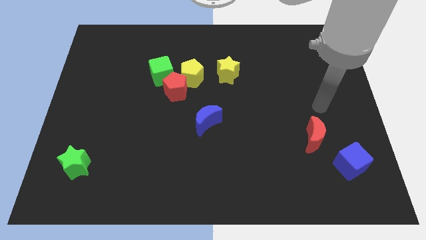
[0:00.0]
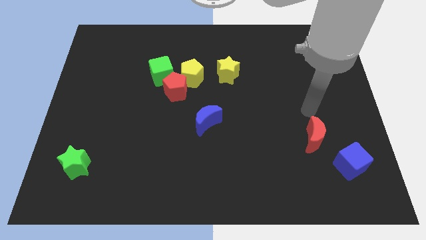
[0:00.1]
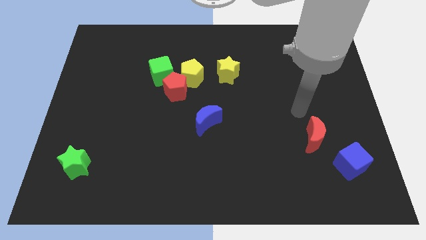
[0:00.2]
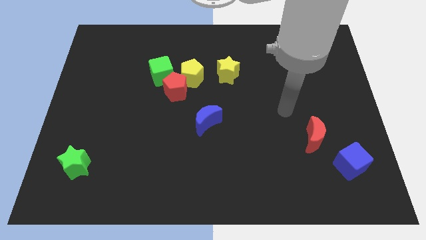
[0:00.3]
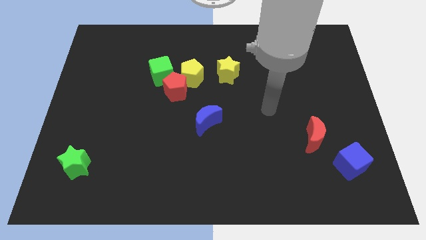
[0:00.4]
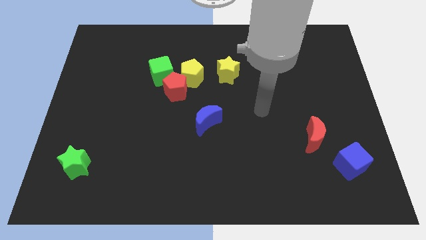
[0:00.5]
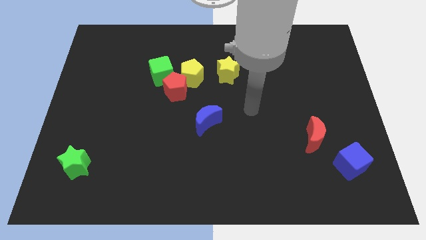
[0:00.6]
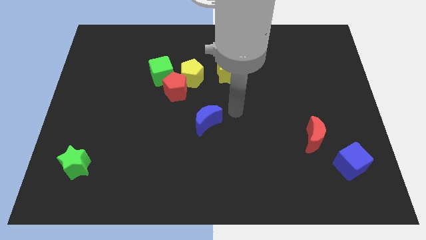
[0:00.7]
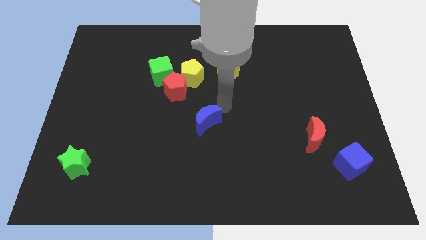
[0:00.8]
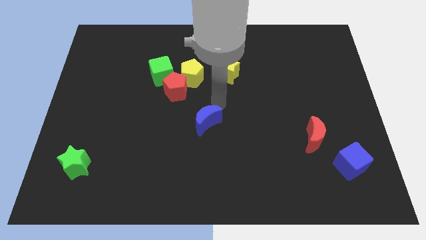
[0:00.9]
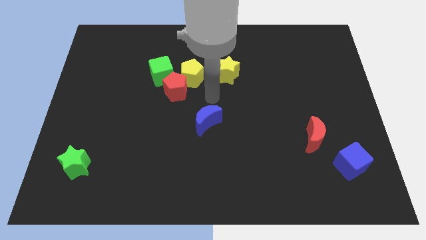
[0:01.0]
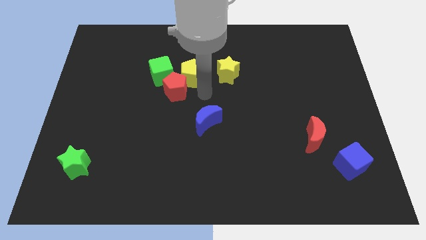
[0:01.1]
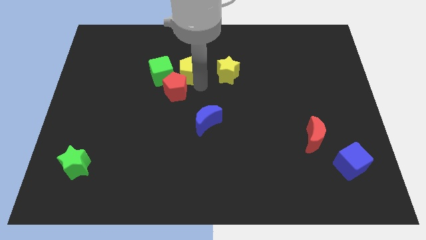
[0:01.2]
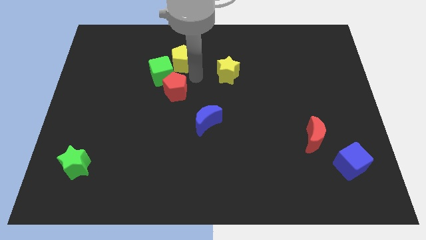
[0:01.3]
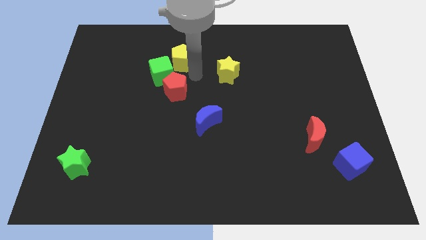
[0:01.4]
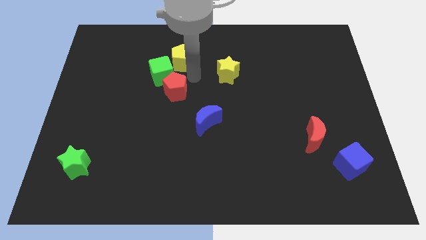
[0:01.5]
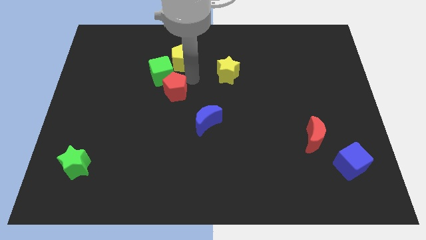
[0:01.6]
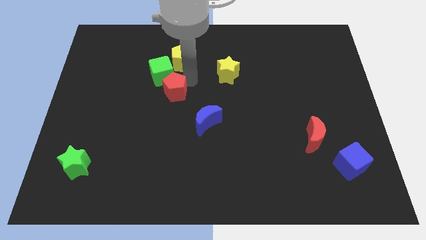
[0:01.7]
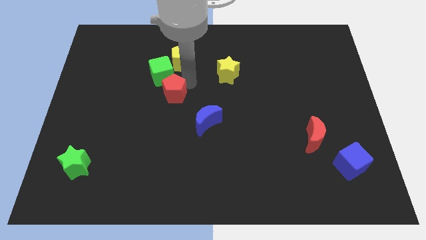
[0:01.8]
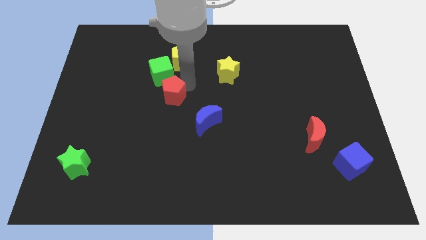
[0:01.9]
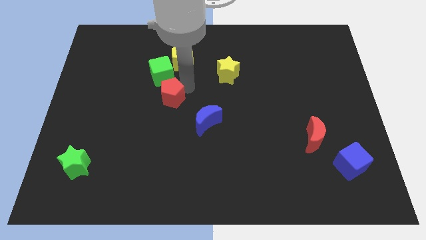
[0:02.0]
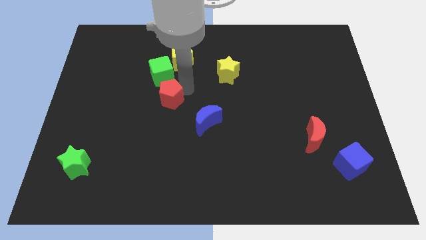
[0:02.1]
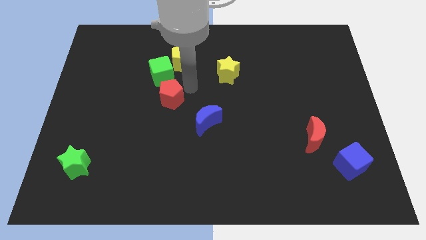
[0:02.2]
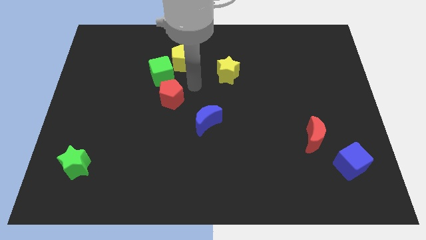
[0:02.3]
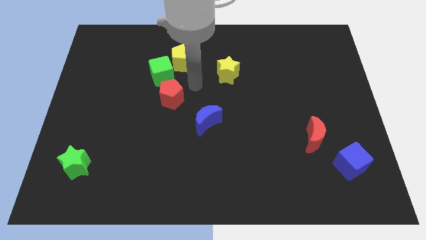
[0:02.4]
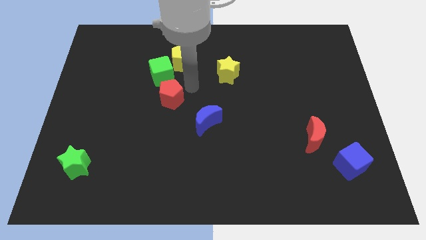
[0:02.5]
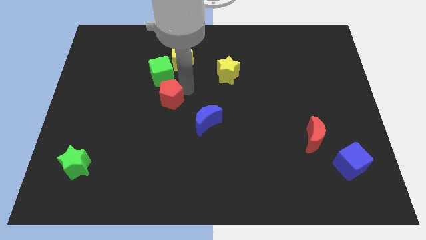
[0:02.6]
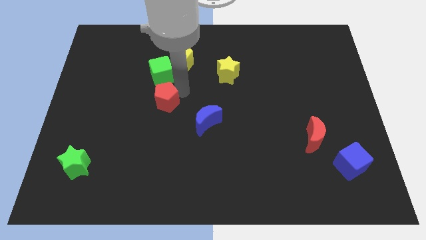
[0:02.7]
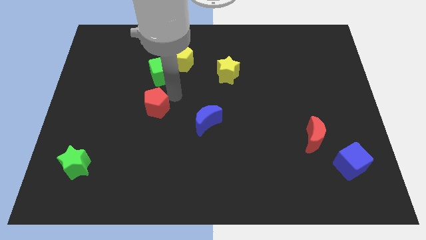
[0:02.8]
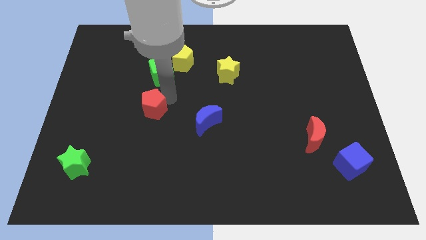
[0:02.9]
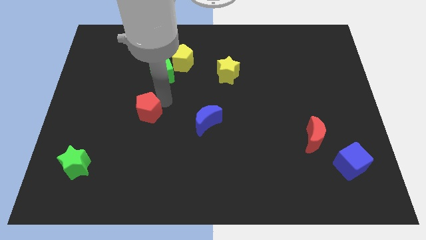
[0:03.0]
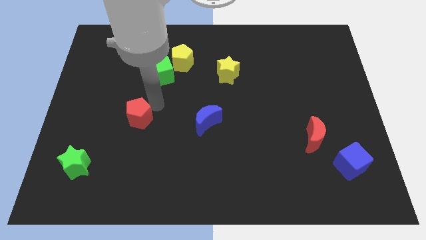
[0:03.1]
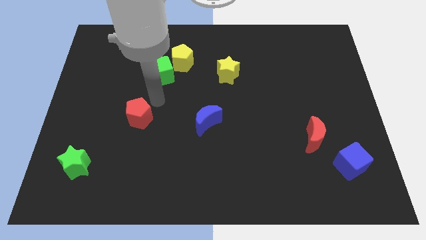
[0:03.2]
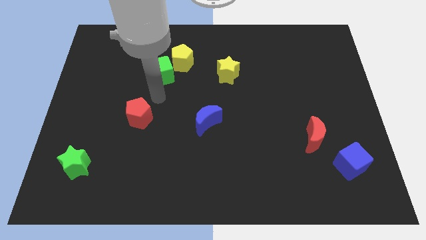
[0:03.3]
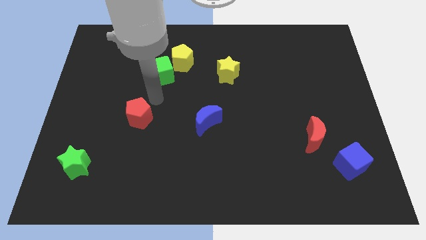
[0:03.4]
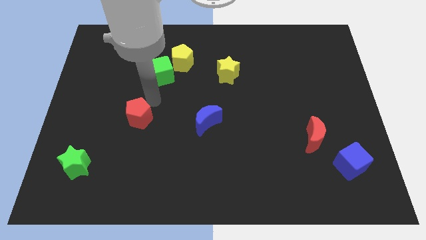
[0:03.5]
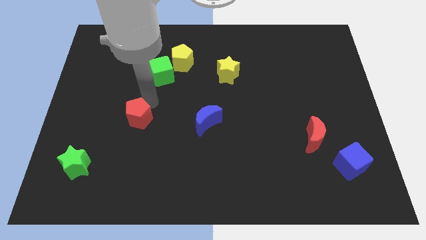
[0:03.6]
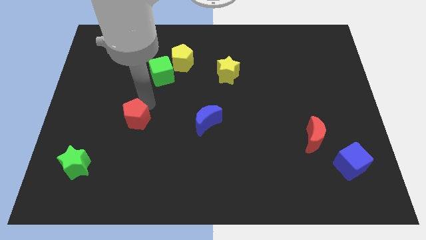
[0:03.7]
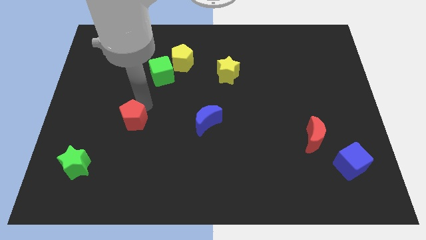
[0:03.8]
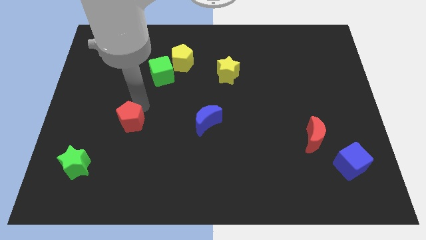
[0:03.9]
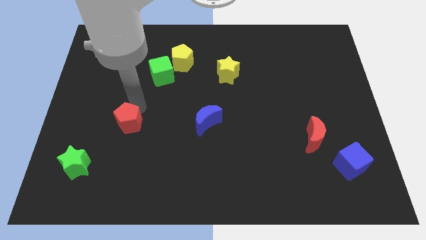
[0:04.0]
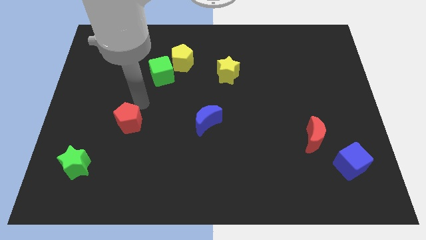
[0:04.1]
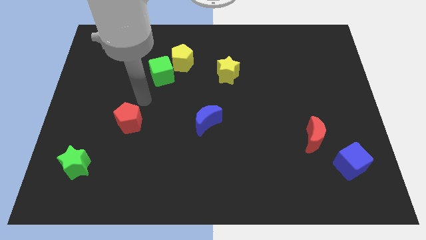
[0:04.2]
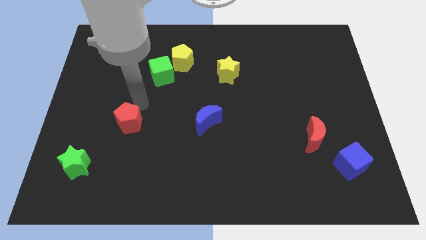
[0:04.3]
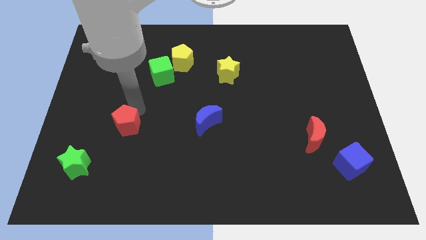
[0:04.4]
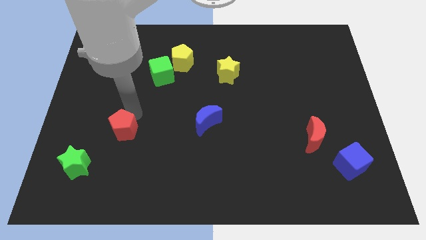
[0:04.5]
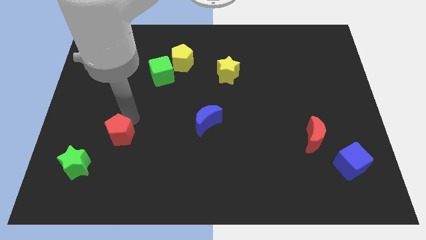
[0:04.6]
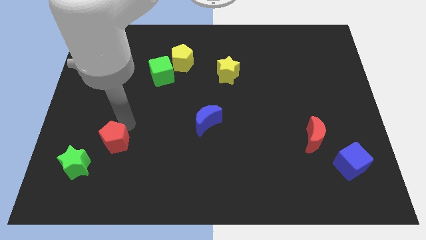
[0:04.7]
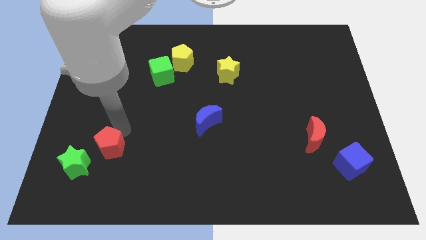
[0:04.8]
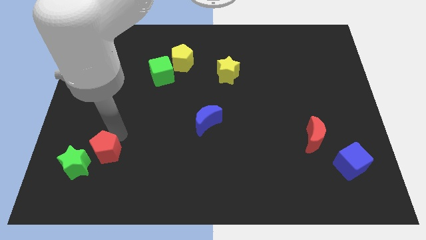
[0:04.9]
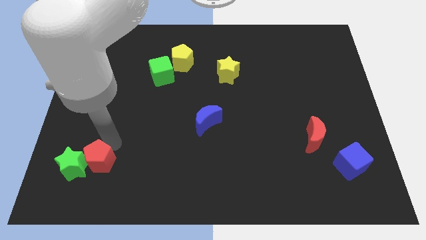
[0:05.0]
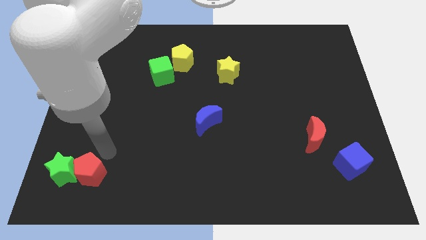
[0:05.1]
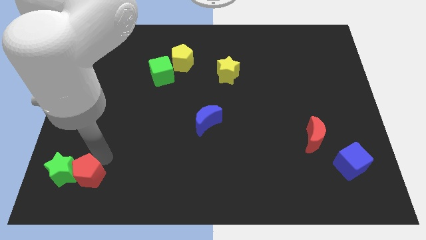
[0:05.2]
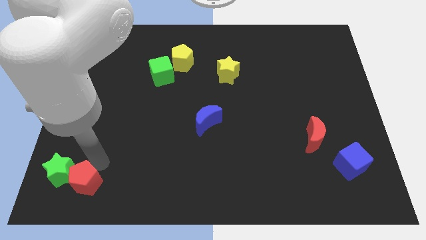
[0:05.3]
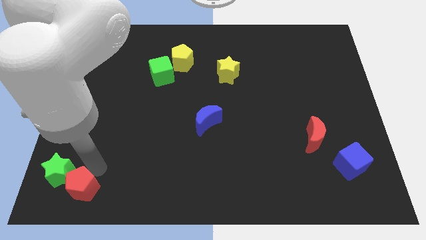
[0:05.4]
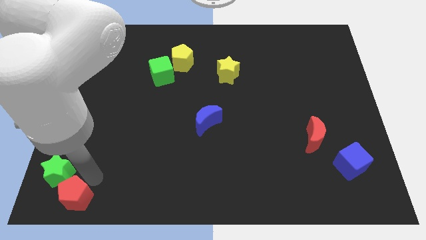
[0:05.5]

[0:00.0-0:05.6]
move the red pentagon to the bottom left

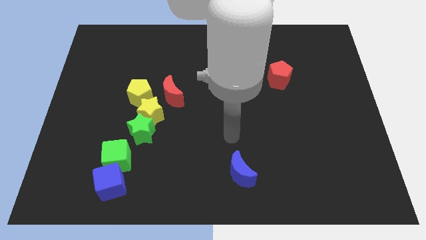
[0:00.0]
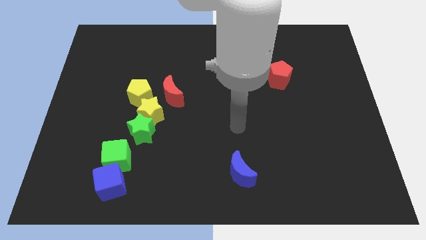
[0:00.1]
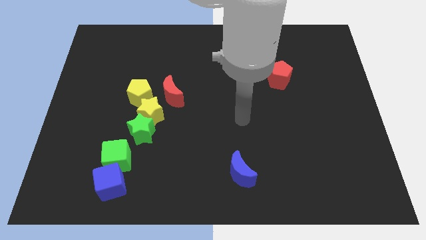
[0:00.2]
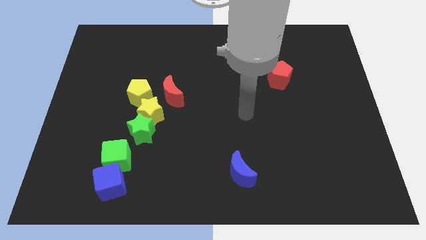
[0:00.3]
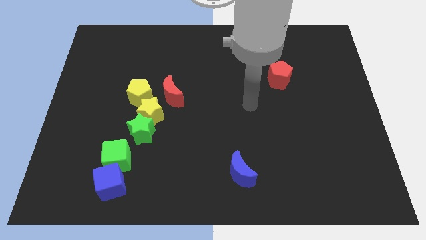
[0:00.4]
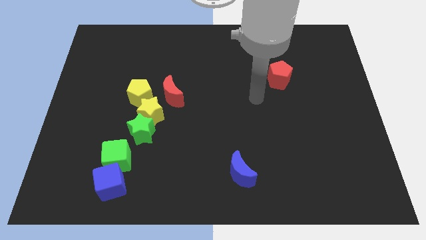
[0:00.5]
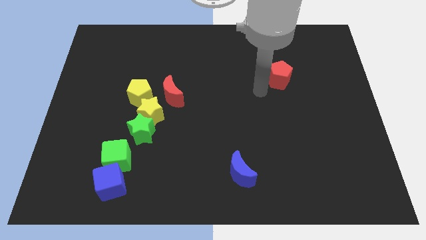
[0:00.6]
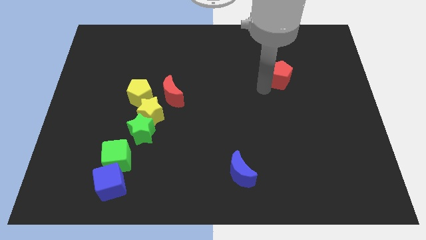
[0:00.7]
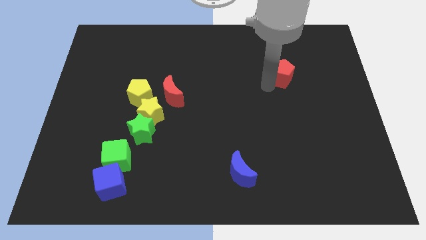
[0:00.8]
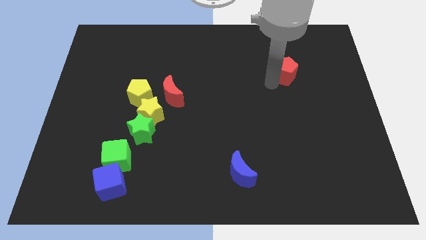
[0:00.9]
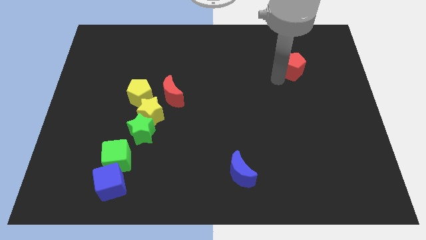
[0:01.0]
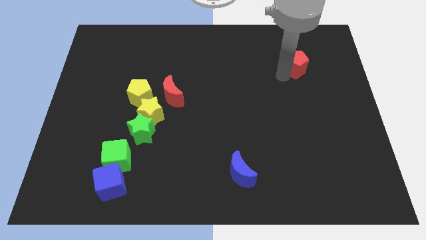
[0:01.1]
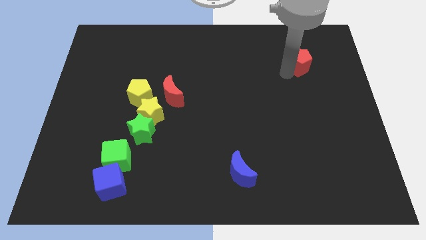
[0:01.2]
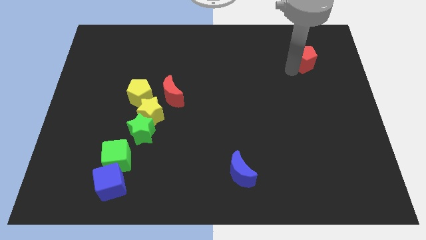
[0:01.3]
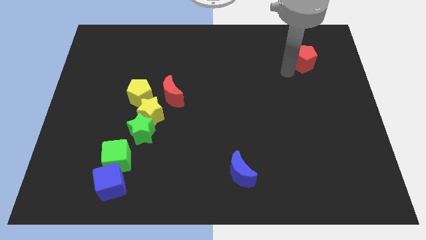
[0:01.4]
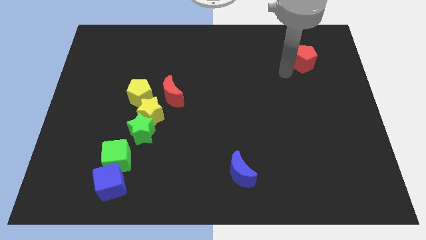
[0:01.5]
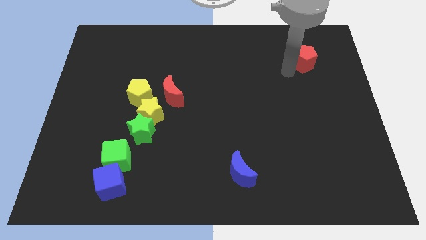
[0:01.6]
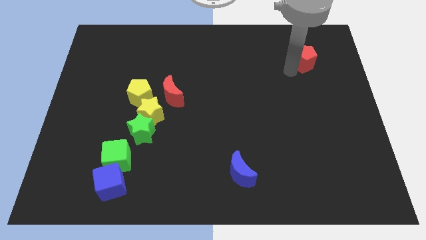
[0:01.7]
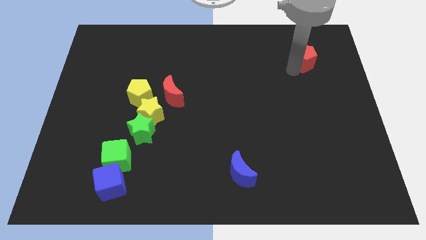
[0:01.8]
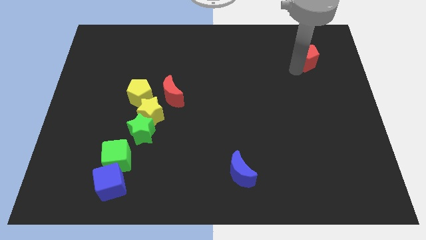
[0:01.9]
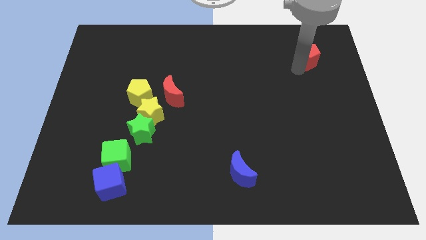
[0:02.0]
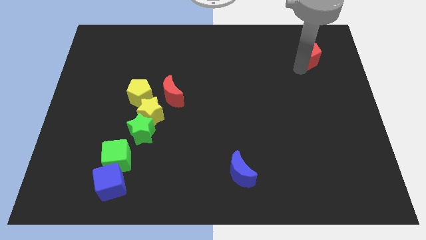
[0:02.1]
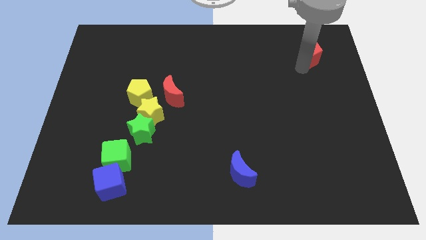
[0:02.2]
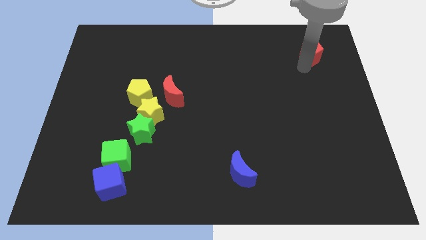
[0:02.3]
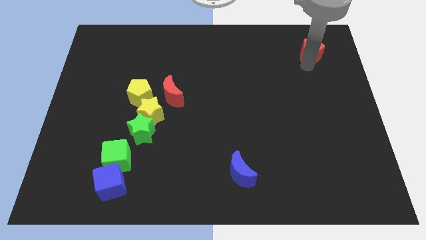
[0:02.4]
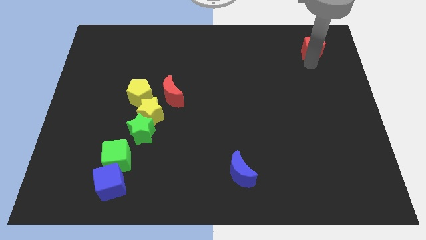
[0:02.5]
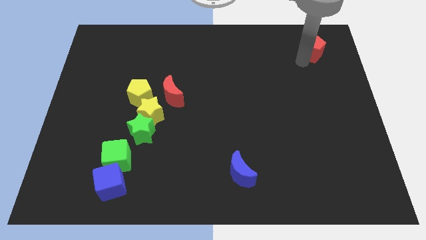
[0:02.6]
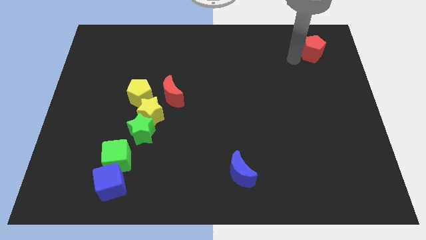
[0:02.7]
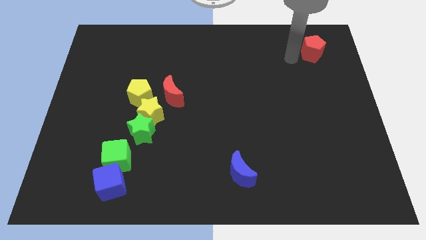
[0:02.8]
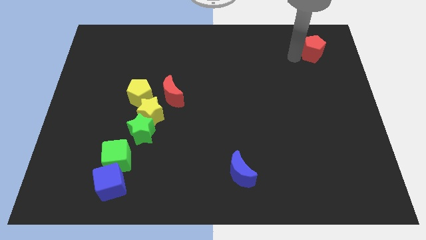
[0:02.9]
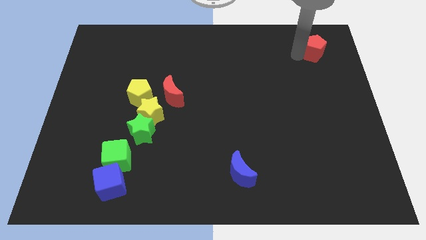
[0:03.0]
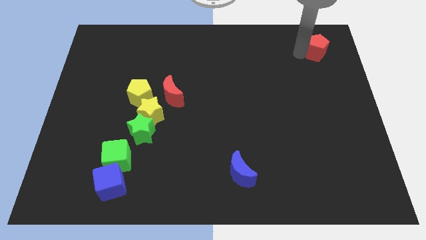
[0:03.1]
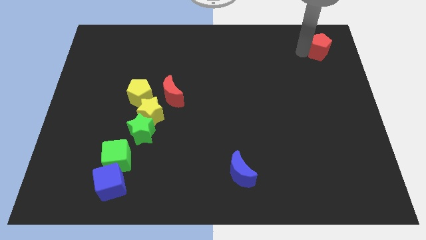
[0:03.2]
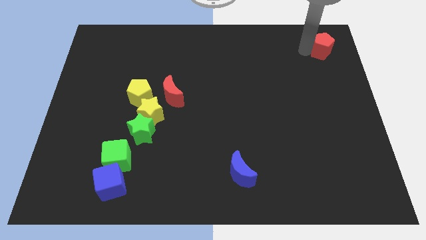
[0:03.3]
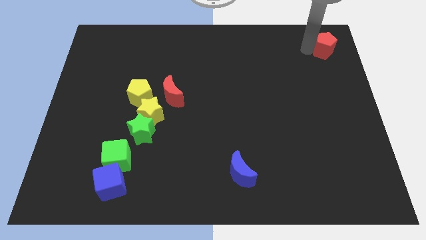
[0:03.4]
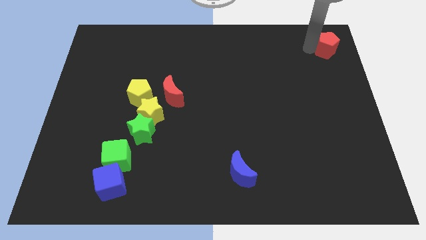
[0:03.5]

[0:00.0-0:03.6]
put the red pentagon to the top right corner
